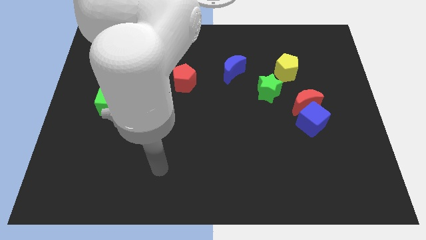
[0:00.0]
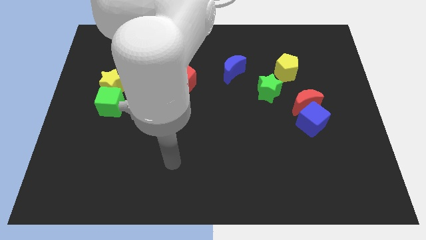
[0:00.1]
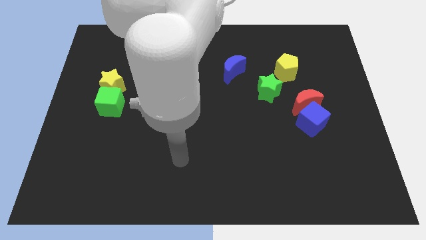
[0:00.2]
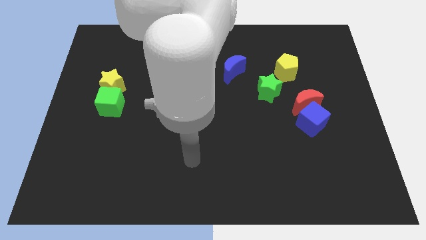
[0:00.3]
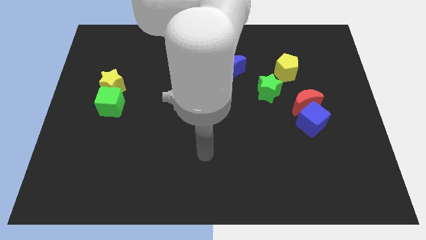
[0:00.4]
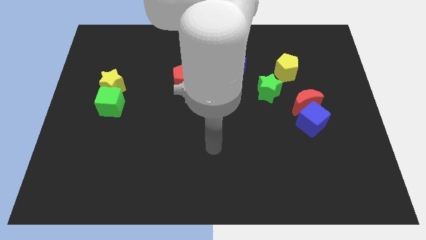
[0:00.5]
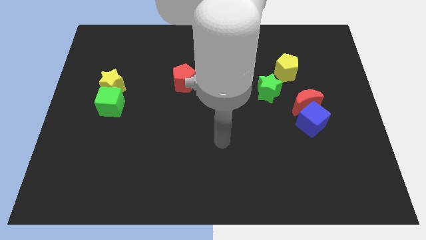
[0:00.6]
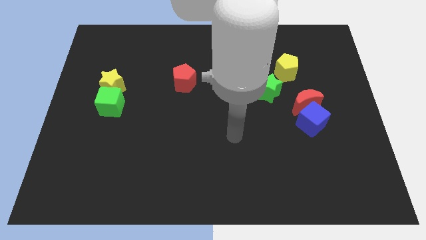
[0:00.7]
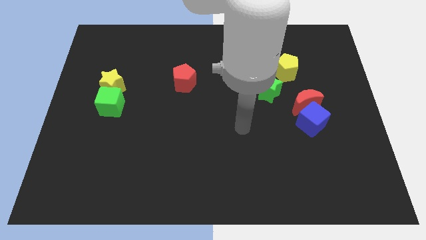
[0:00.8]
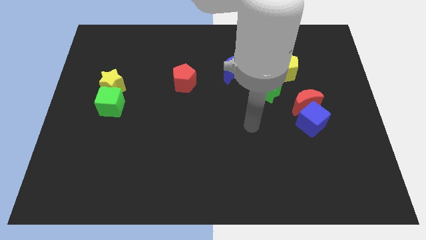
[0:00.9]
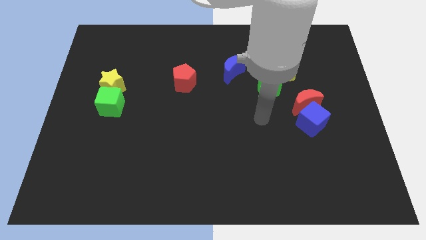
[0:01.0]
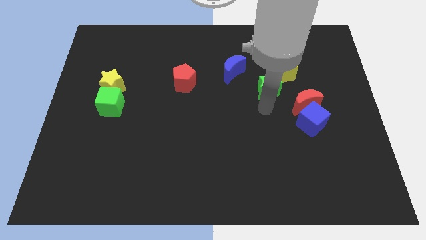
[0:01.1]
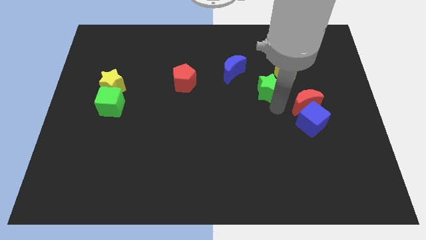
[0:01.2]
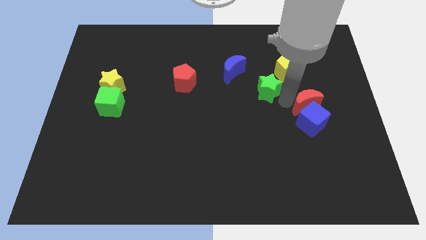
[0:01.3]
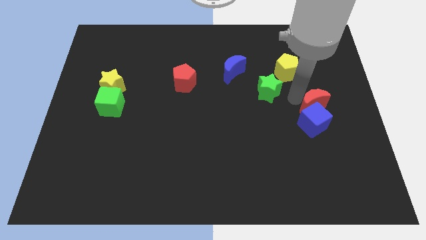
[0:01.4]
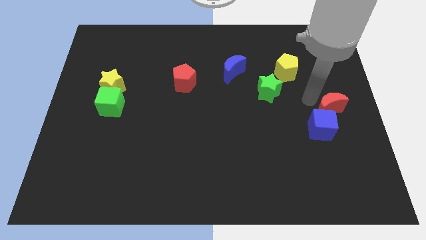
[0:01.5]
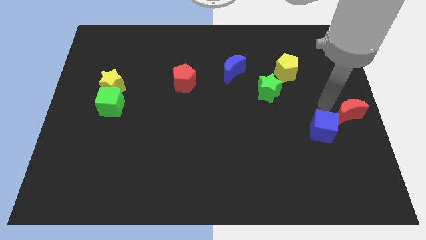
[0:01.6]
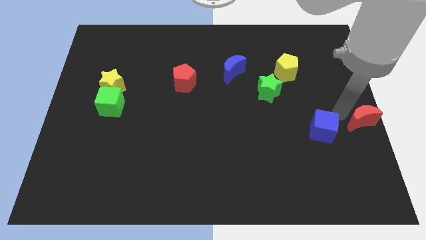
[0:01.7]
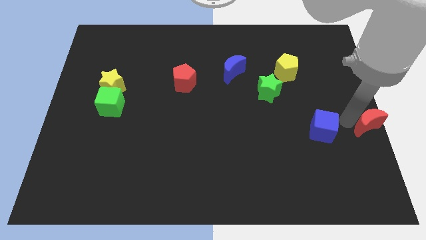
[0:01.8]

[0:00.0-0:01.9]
pull the blue cube apart from the red moon

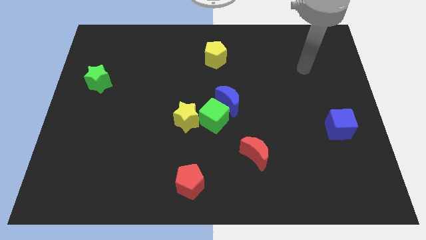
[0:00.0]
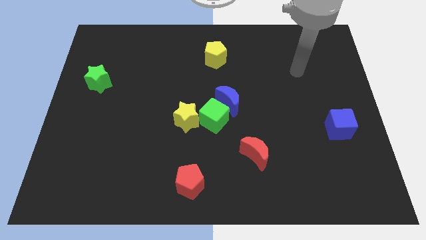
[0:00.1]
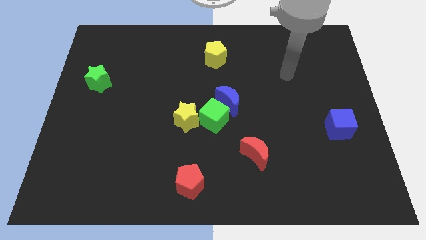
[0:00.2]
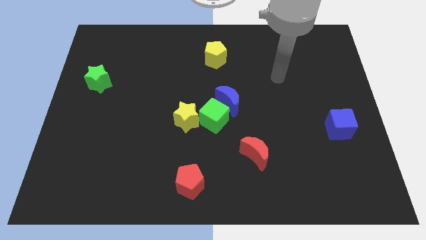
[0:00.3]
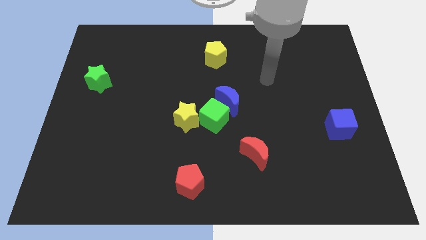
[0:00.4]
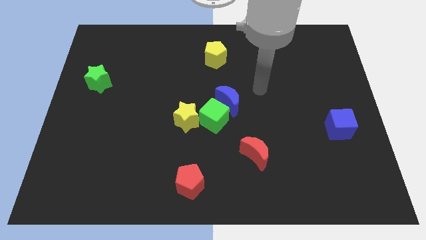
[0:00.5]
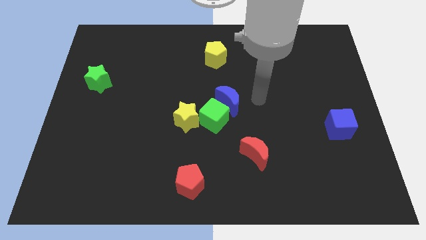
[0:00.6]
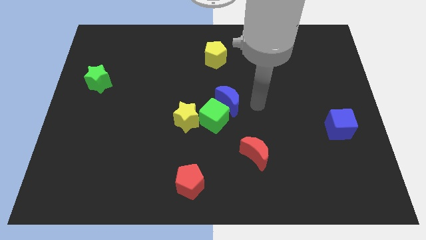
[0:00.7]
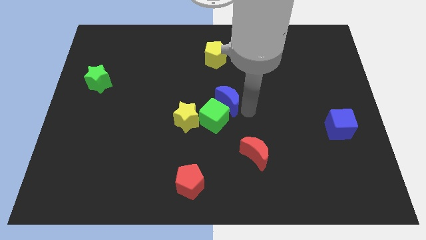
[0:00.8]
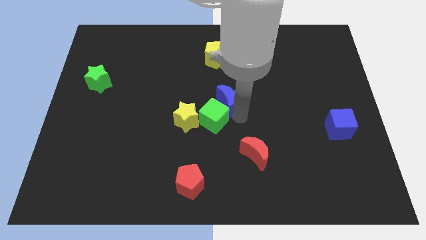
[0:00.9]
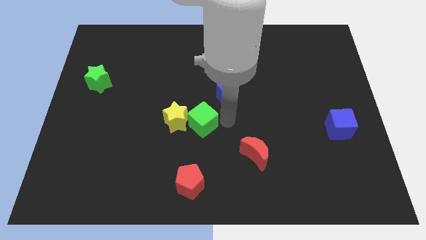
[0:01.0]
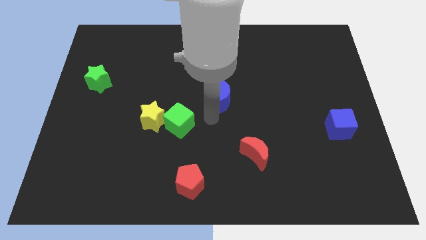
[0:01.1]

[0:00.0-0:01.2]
separate the blue moon from the green cube

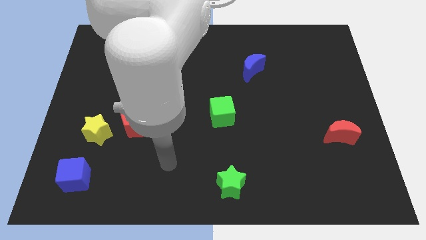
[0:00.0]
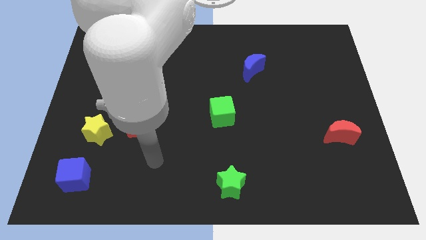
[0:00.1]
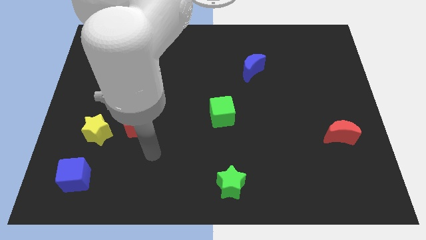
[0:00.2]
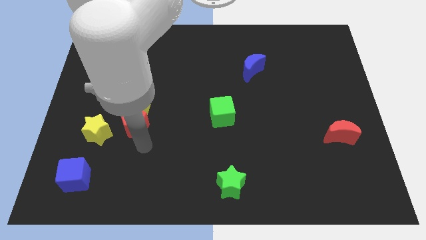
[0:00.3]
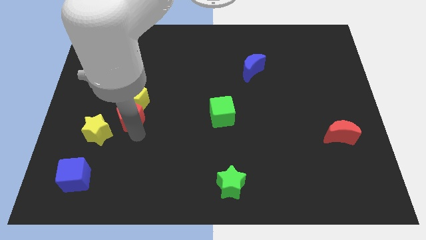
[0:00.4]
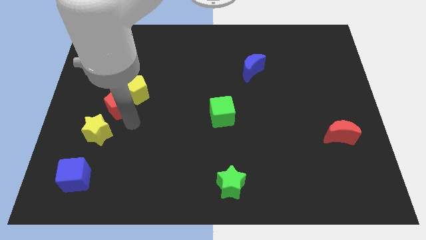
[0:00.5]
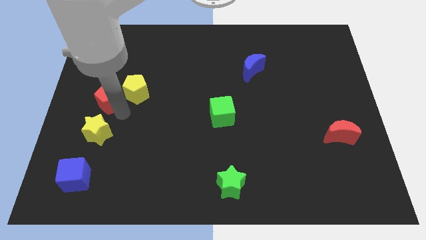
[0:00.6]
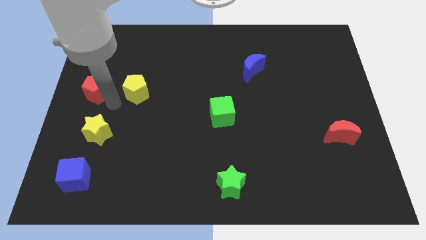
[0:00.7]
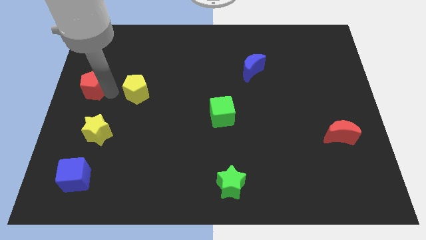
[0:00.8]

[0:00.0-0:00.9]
pull the yellow pentagon apart from the red pentagon

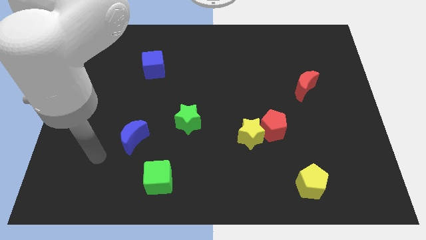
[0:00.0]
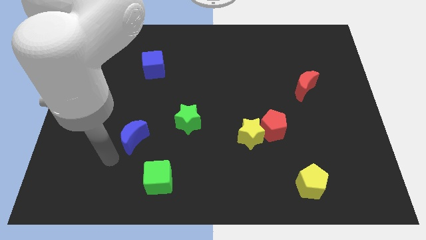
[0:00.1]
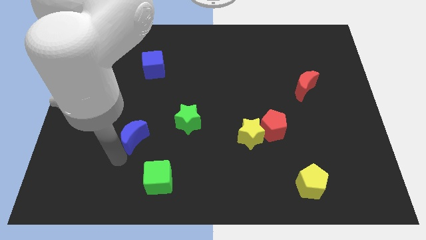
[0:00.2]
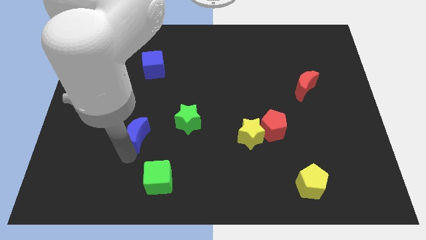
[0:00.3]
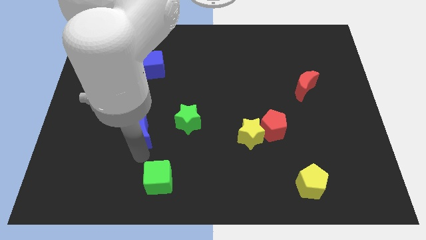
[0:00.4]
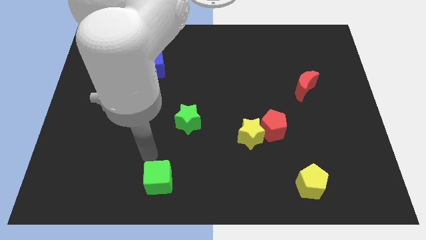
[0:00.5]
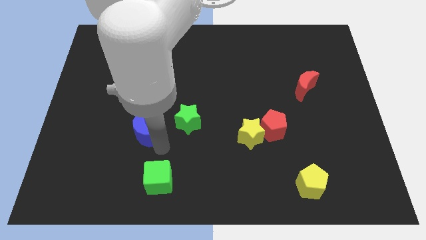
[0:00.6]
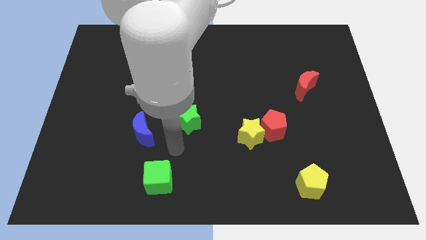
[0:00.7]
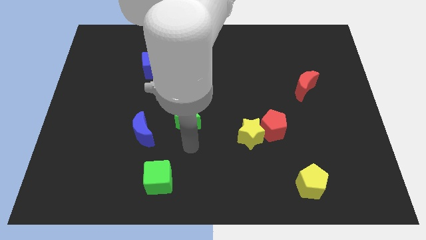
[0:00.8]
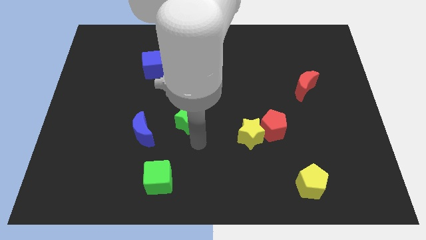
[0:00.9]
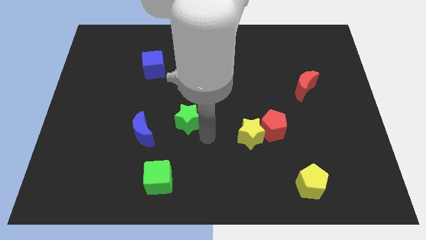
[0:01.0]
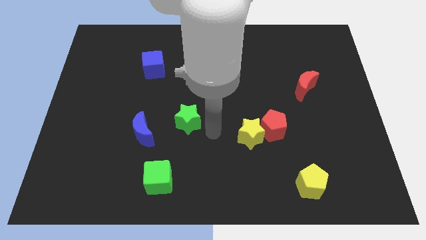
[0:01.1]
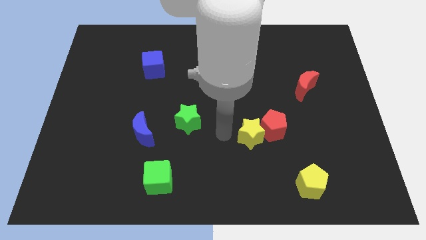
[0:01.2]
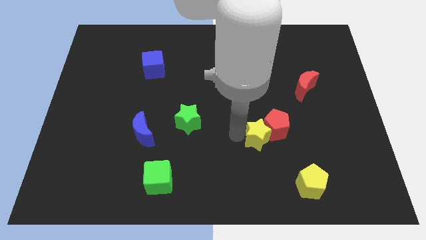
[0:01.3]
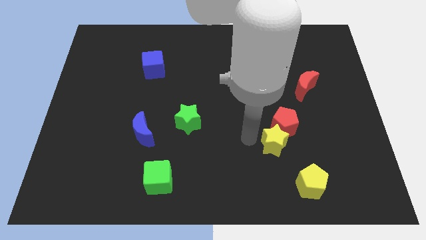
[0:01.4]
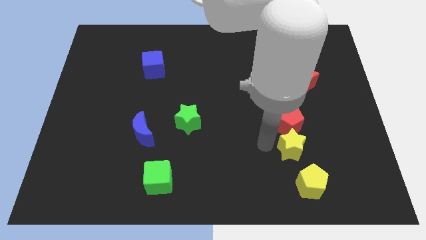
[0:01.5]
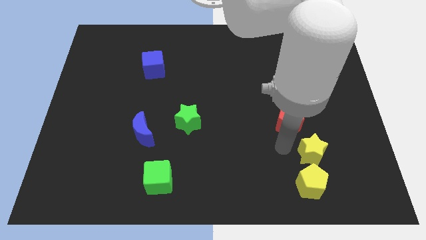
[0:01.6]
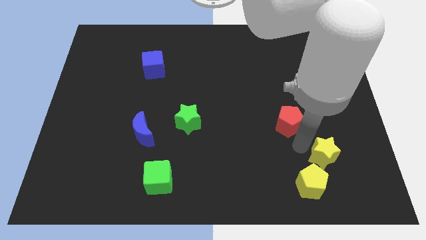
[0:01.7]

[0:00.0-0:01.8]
move the red pentagon away from the yellow star

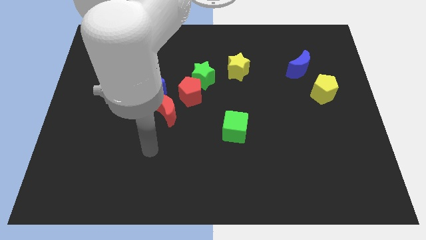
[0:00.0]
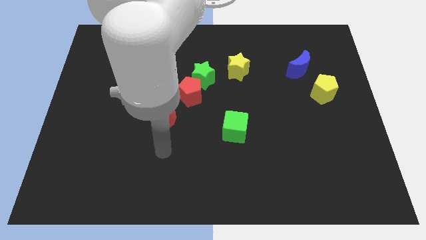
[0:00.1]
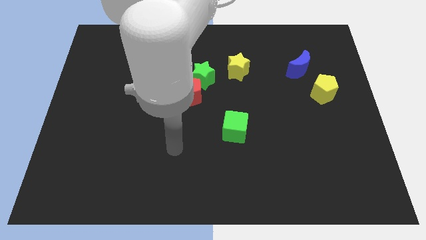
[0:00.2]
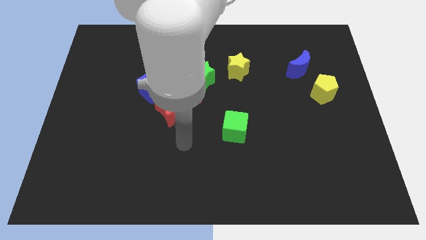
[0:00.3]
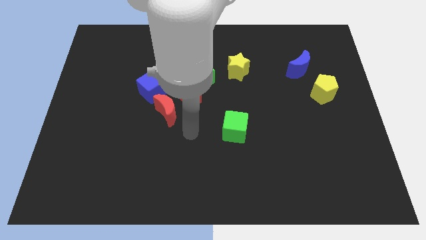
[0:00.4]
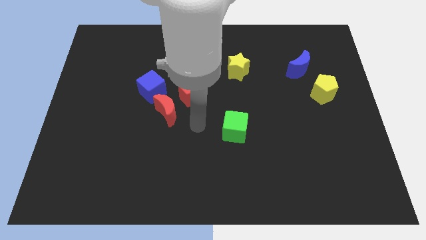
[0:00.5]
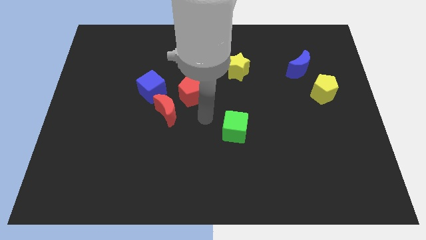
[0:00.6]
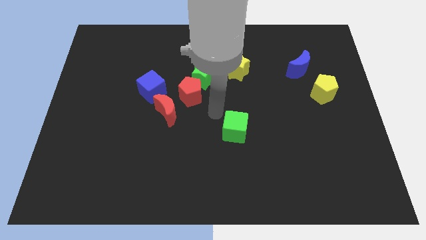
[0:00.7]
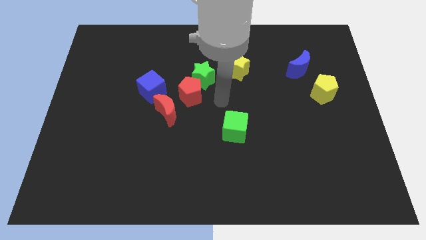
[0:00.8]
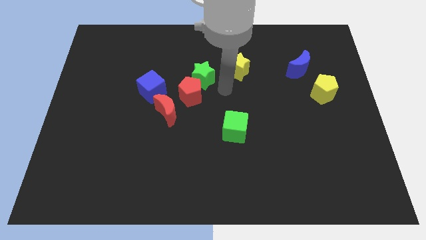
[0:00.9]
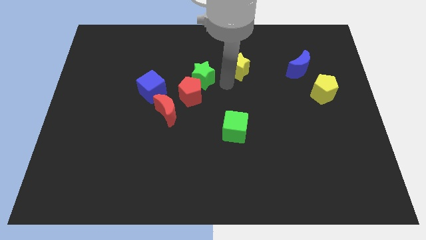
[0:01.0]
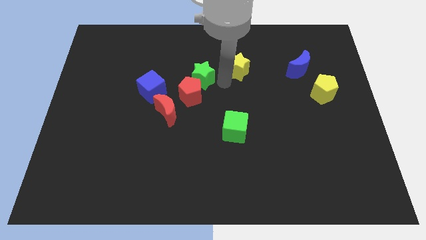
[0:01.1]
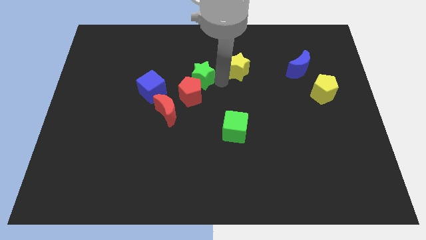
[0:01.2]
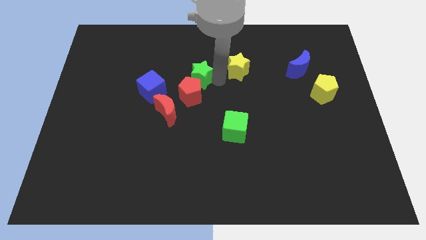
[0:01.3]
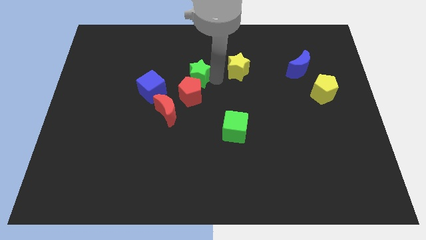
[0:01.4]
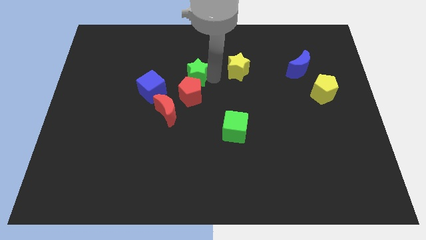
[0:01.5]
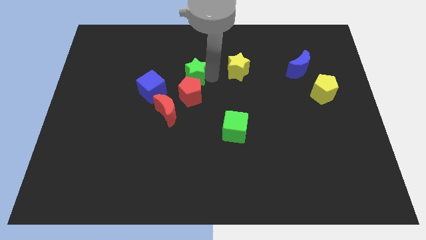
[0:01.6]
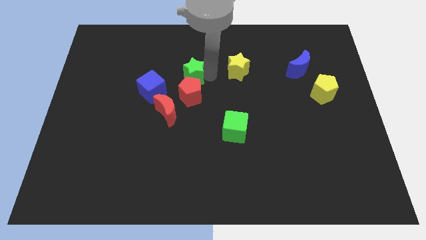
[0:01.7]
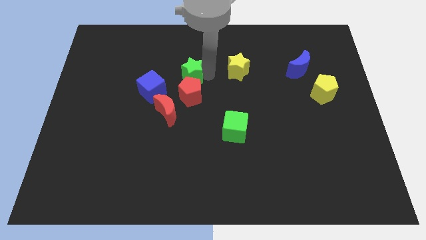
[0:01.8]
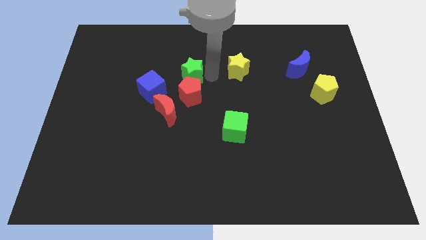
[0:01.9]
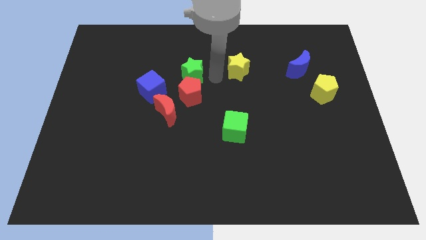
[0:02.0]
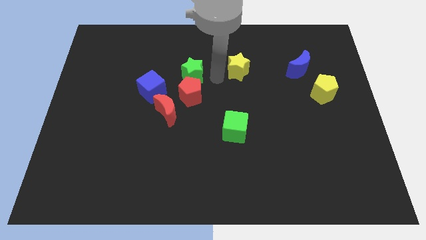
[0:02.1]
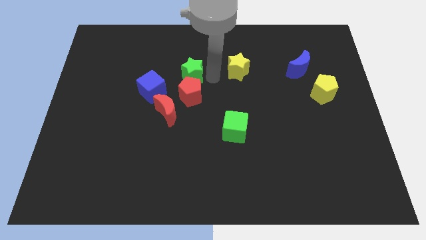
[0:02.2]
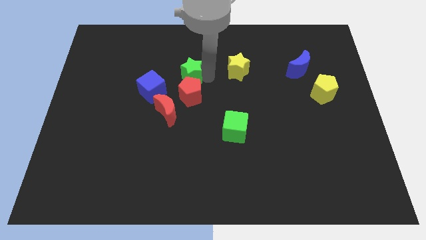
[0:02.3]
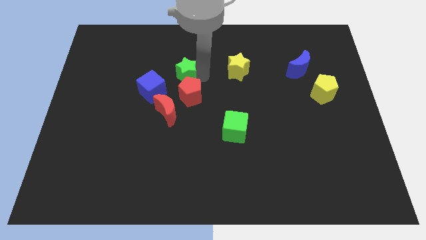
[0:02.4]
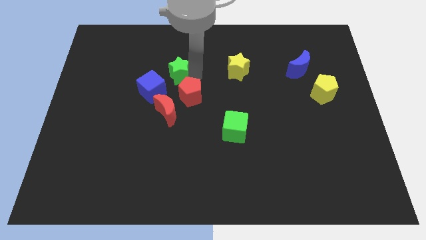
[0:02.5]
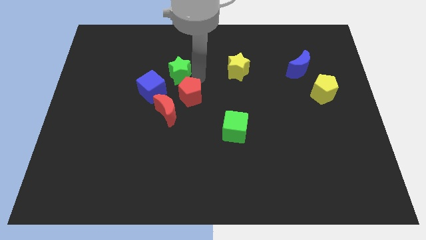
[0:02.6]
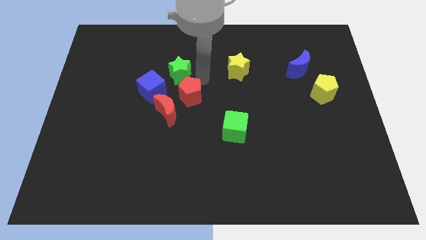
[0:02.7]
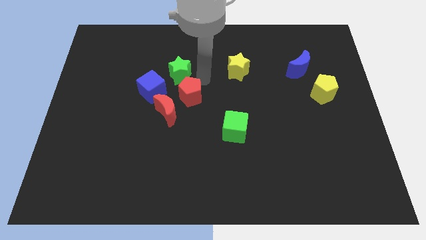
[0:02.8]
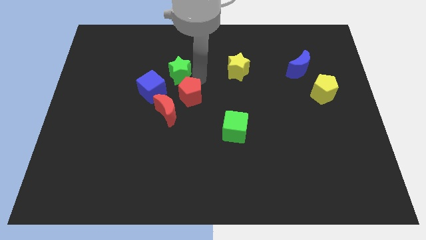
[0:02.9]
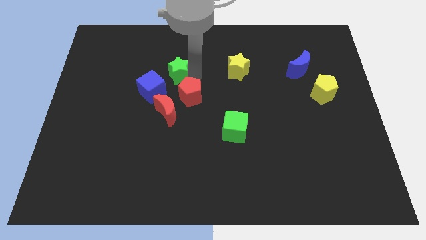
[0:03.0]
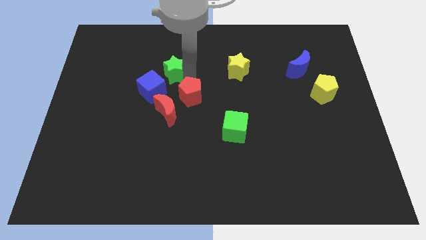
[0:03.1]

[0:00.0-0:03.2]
separate the green star from the red pentagon and yellow star

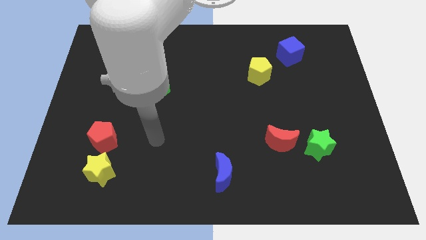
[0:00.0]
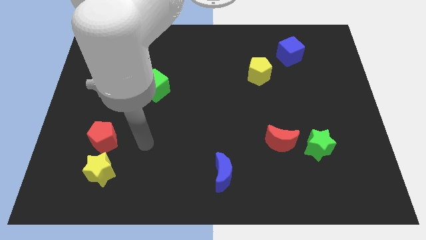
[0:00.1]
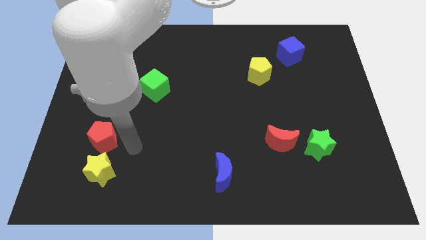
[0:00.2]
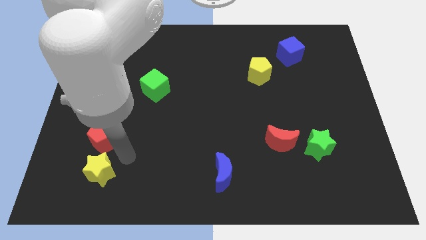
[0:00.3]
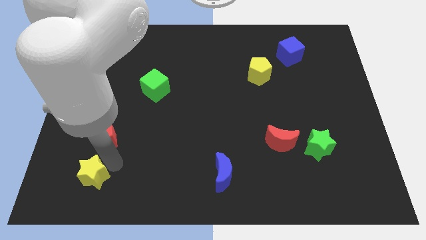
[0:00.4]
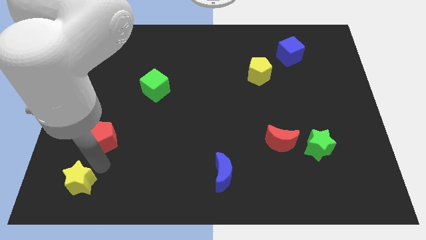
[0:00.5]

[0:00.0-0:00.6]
separate the red pentagon from the yellow star
